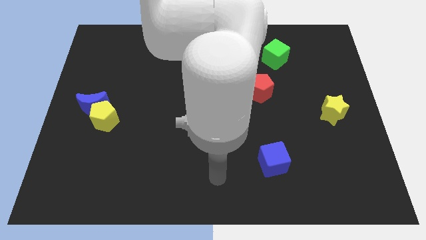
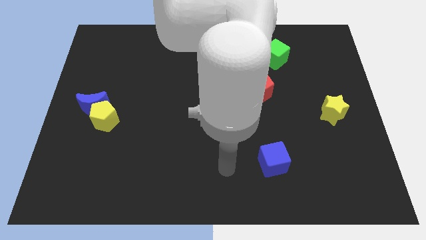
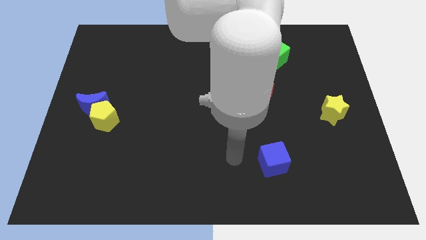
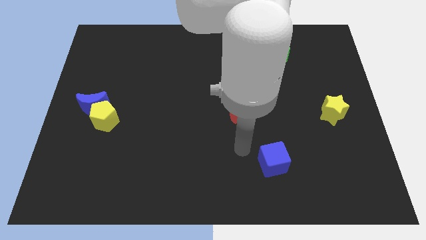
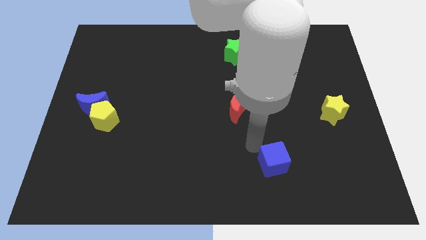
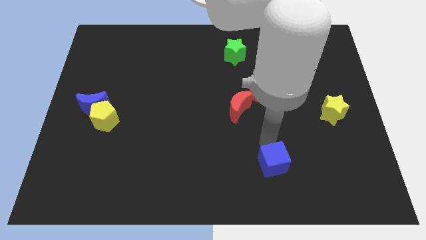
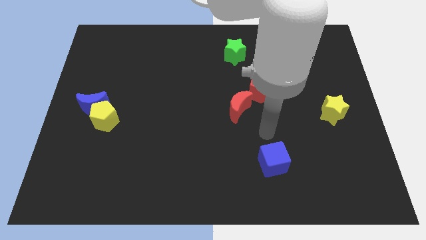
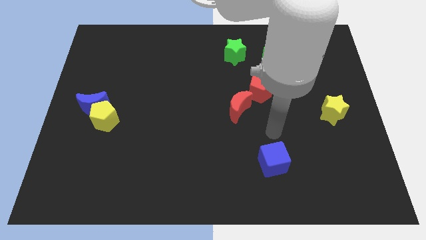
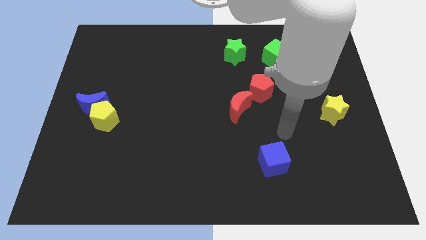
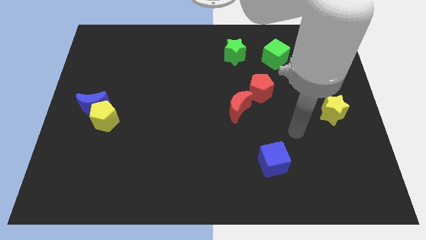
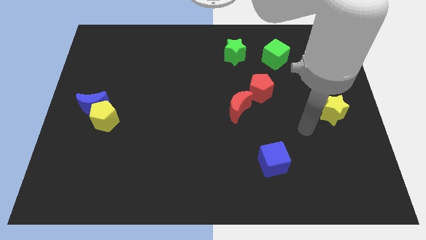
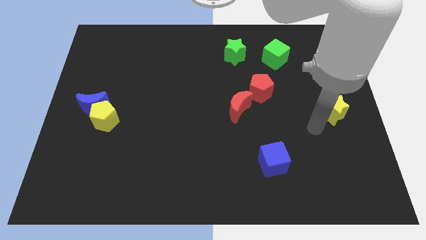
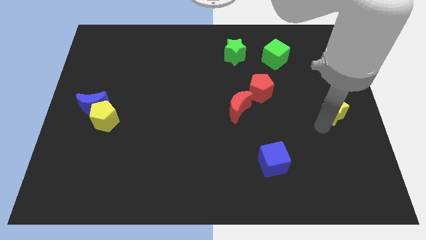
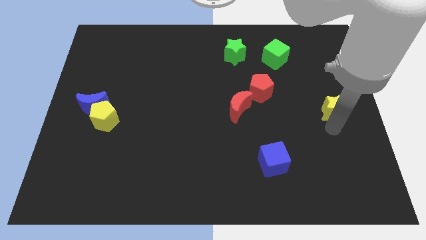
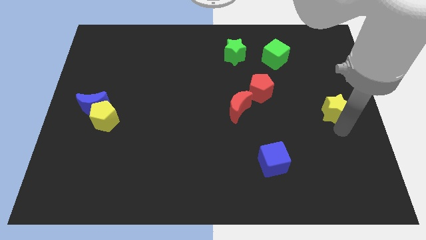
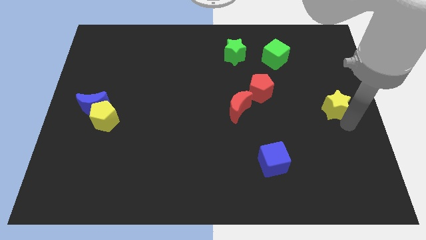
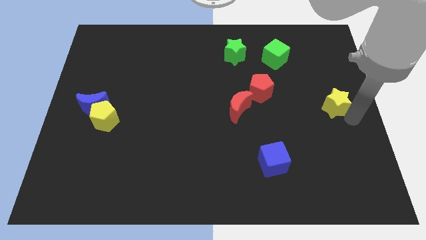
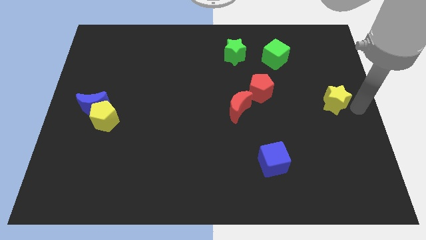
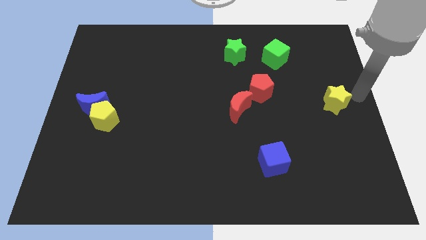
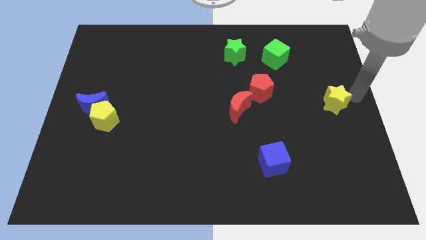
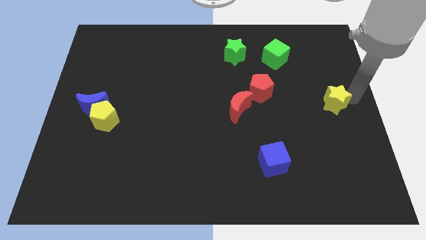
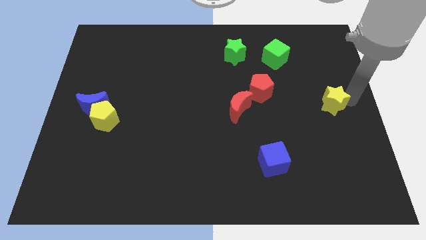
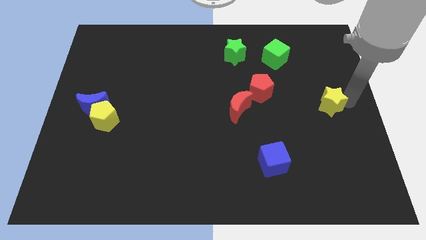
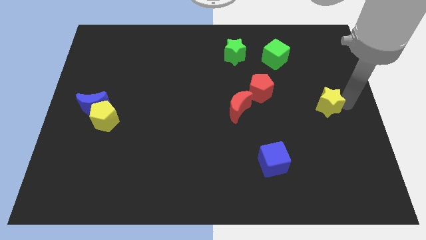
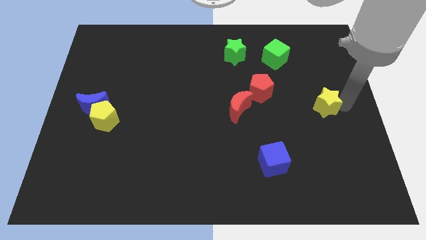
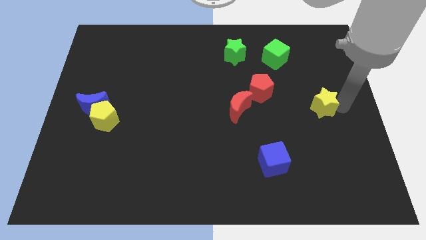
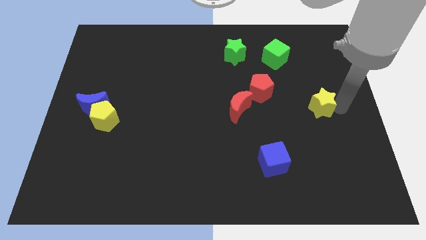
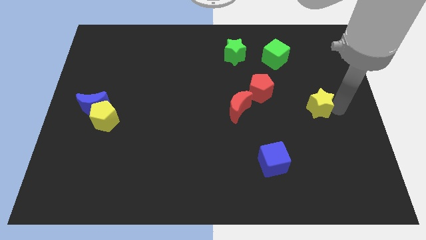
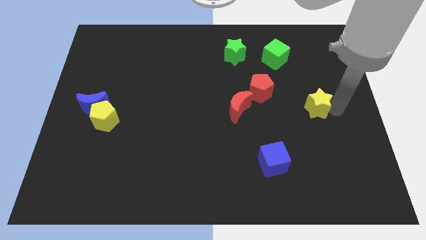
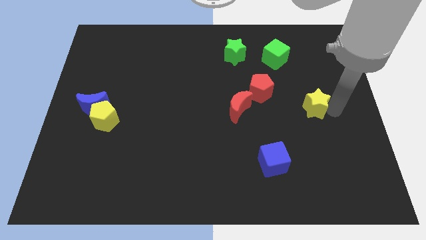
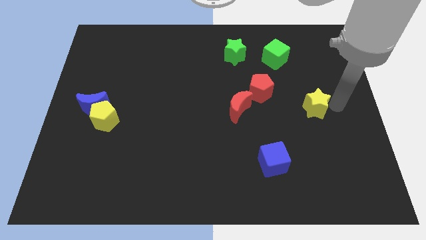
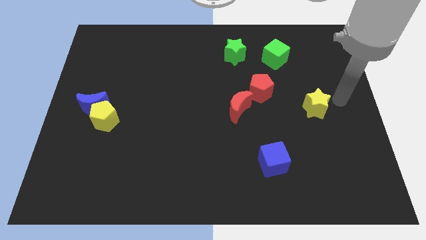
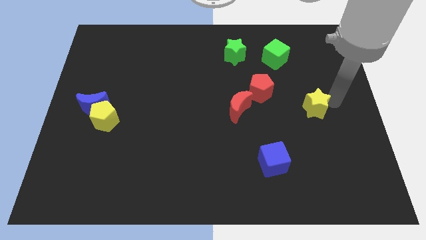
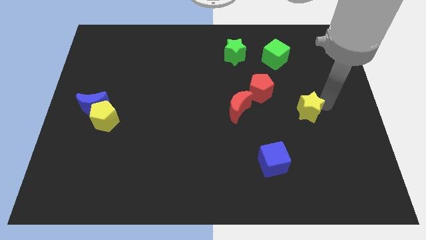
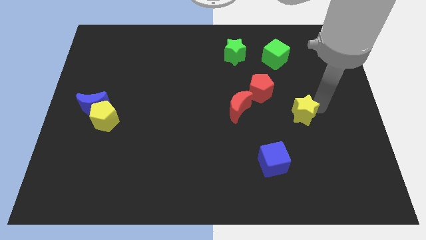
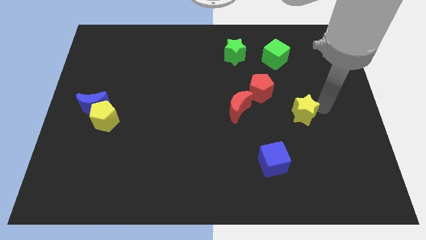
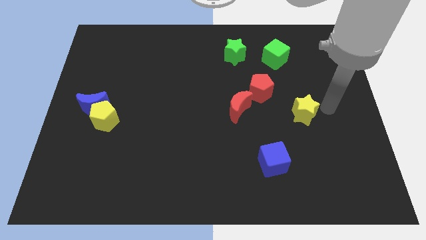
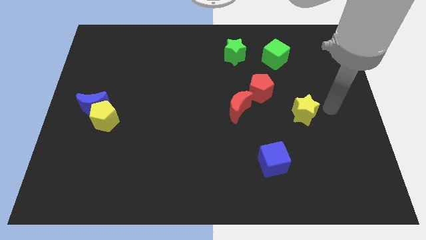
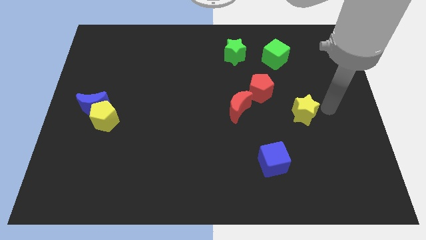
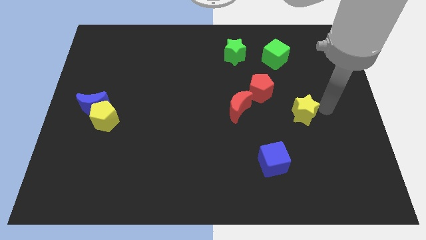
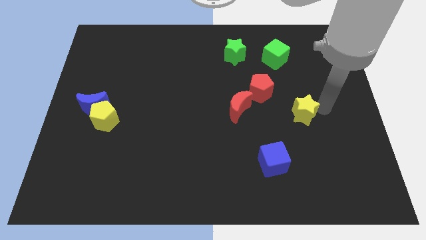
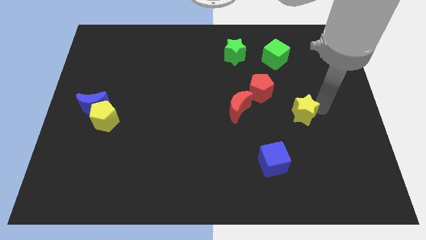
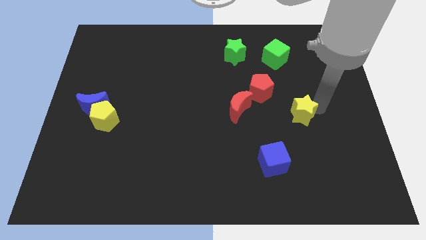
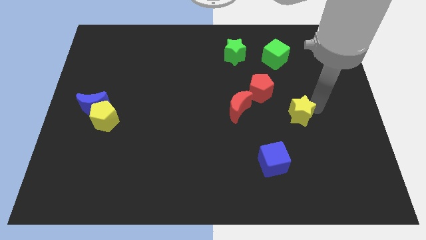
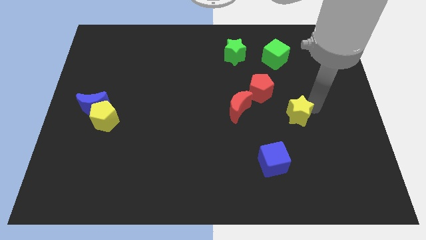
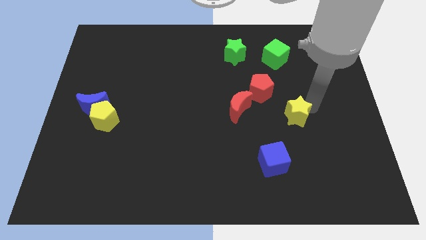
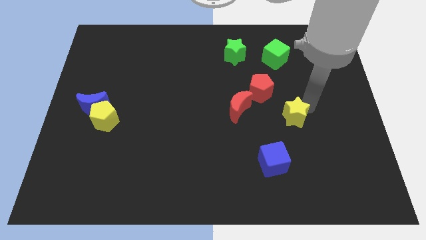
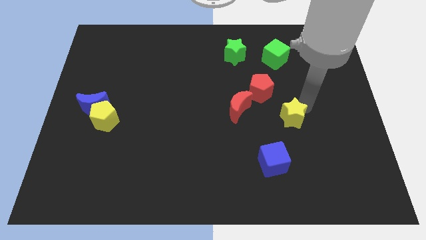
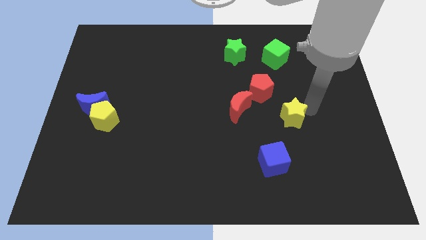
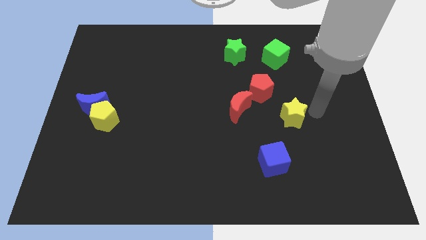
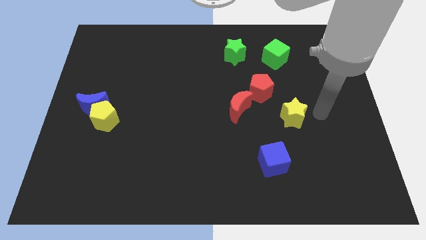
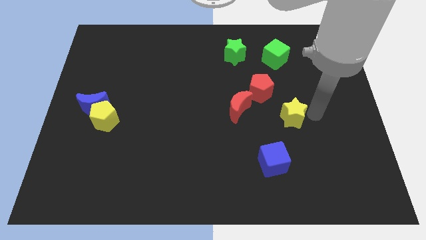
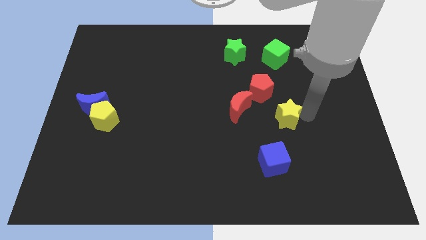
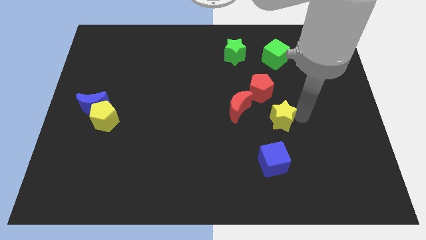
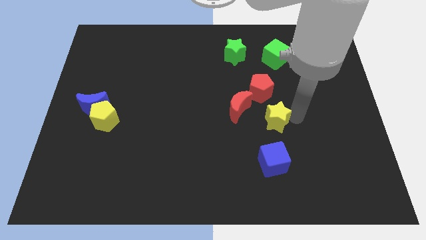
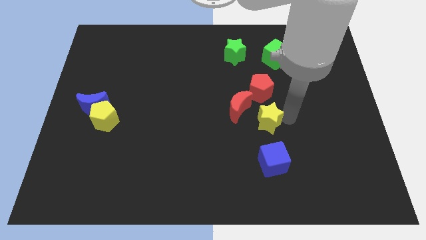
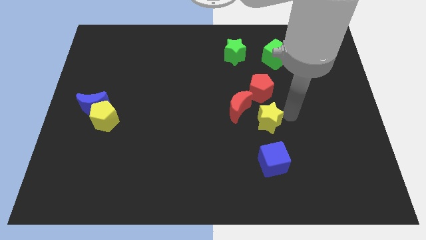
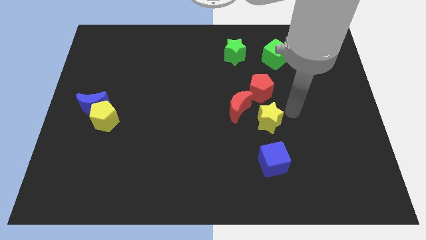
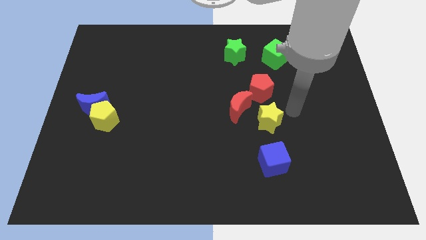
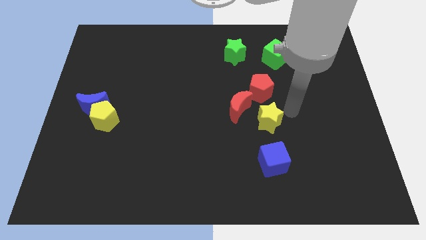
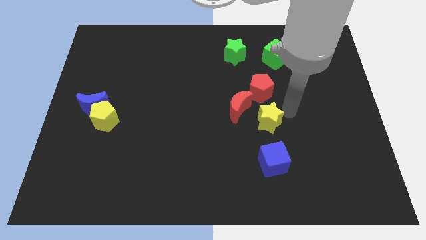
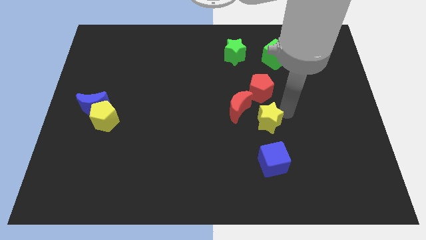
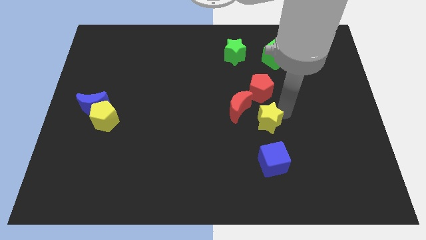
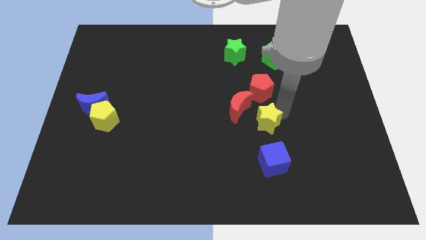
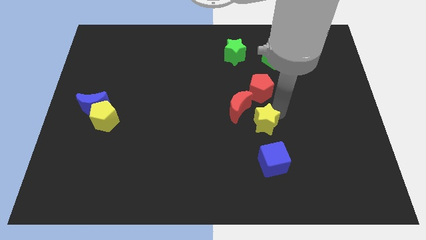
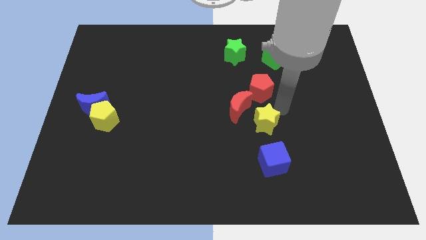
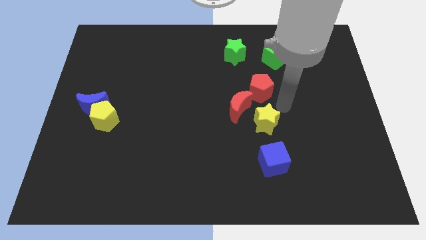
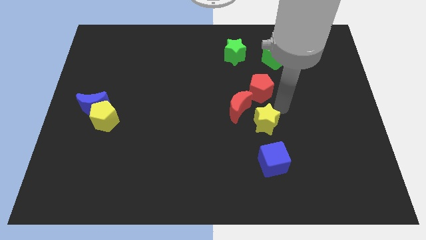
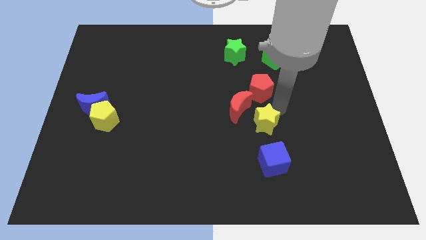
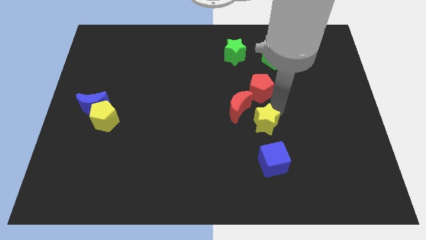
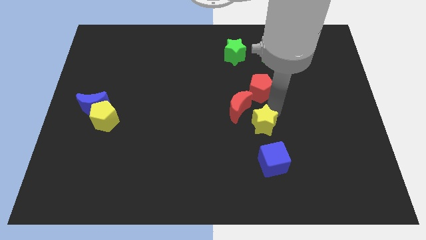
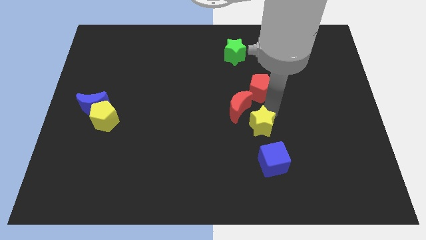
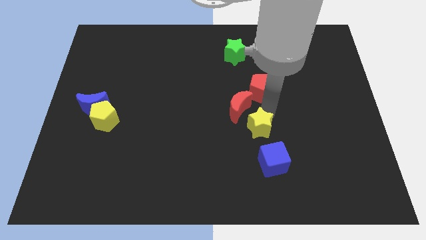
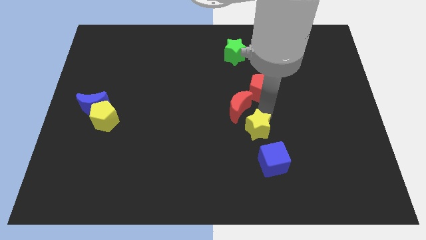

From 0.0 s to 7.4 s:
push the yellow star to the top left side of the blue cube
